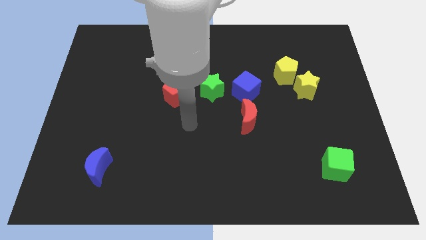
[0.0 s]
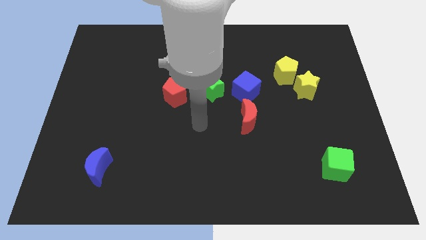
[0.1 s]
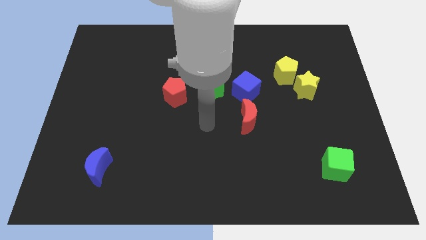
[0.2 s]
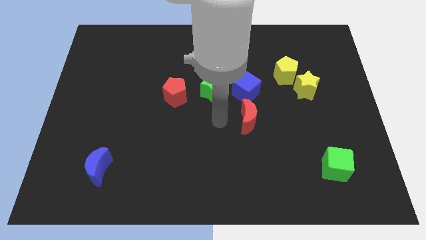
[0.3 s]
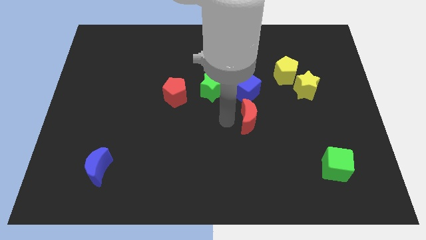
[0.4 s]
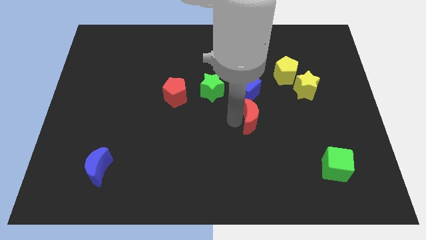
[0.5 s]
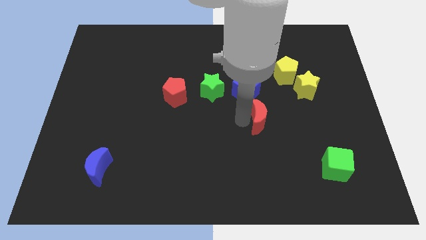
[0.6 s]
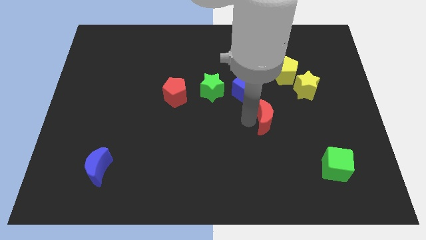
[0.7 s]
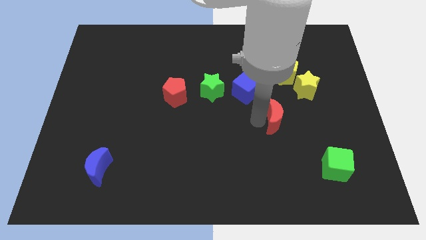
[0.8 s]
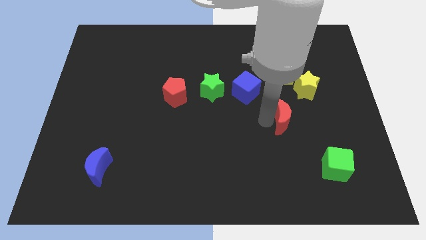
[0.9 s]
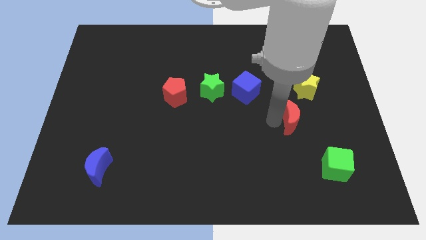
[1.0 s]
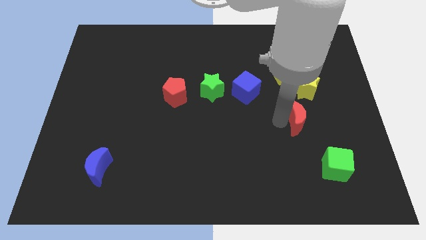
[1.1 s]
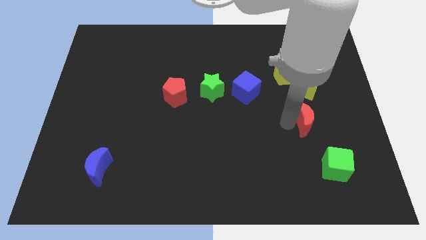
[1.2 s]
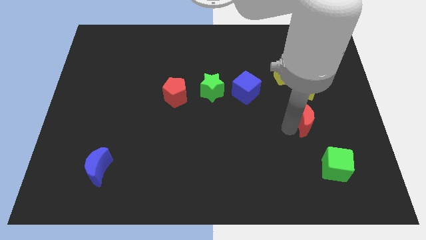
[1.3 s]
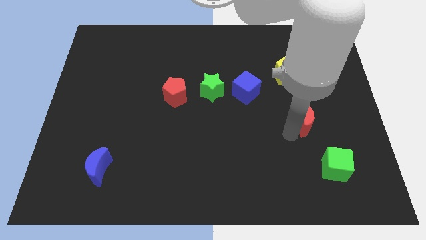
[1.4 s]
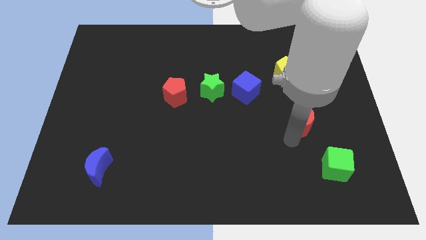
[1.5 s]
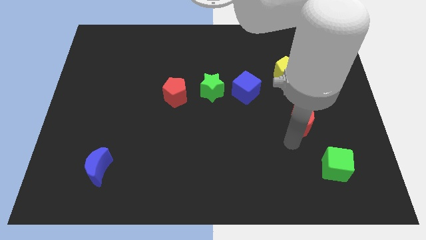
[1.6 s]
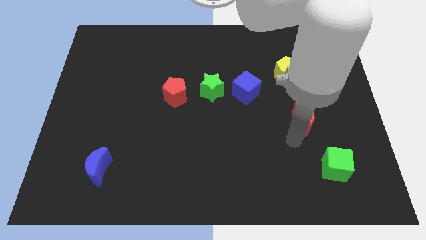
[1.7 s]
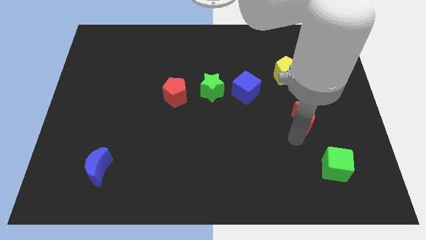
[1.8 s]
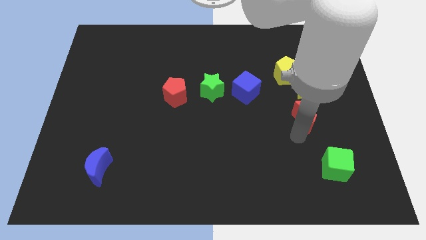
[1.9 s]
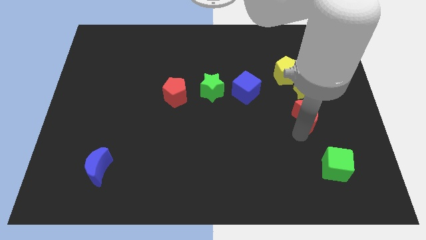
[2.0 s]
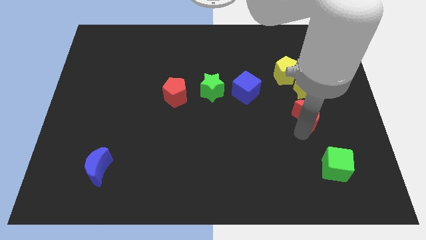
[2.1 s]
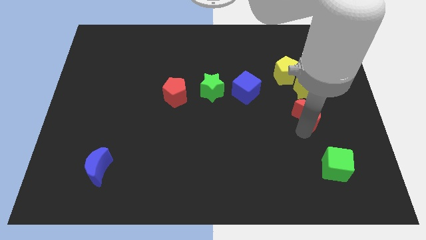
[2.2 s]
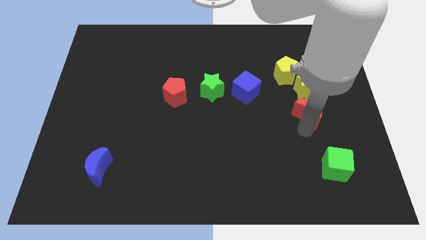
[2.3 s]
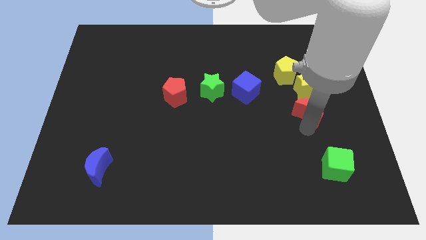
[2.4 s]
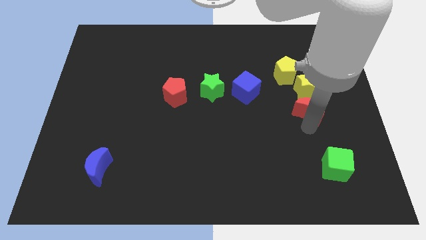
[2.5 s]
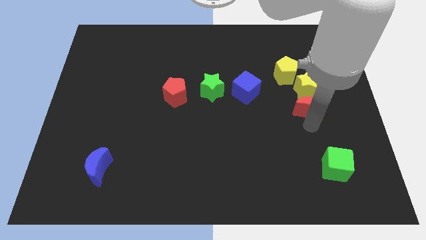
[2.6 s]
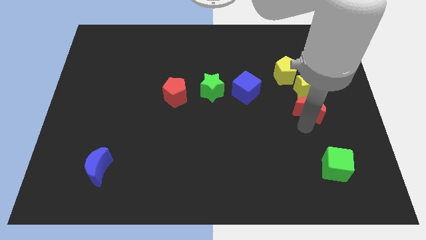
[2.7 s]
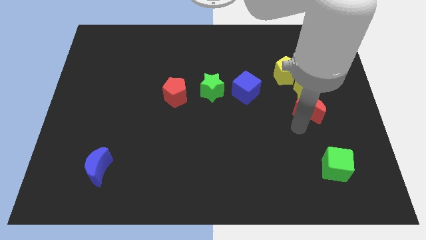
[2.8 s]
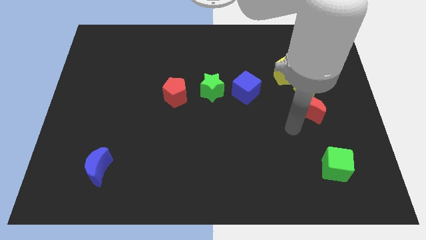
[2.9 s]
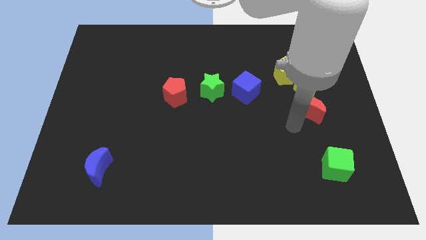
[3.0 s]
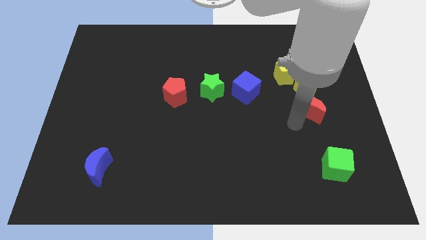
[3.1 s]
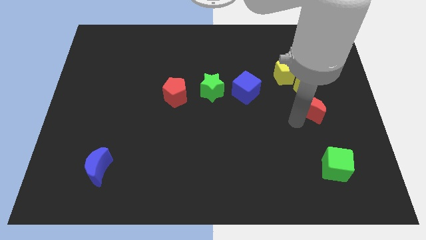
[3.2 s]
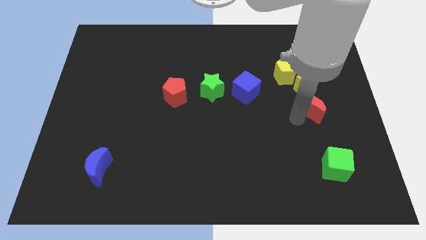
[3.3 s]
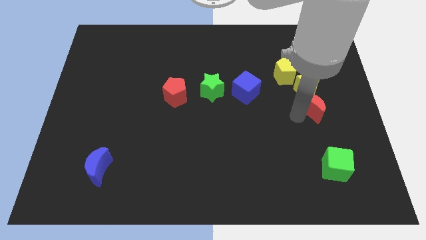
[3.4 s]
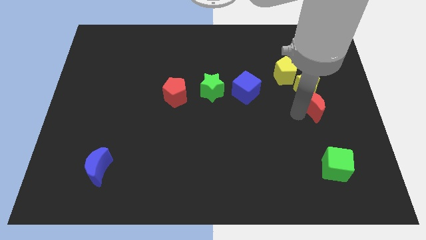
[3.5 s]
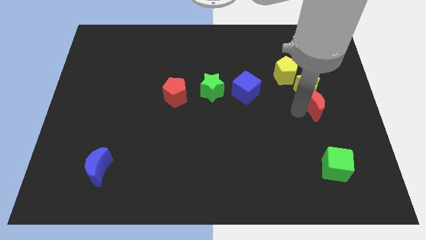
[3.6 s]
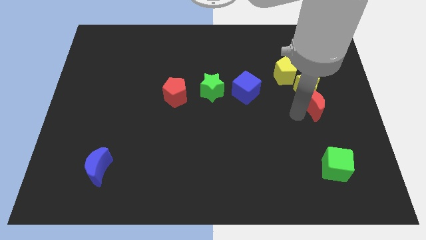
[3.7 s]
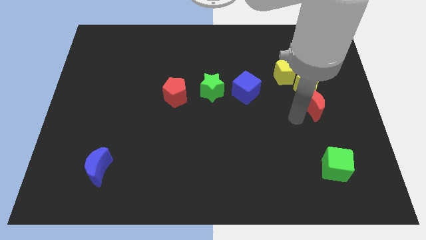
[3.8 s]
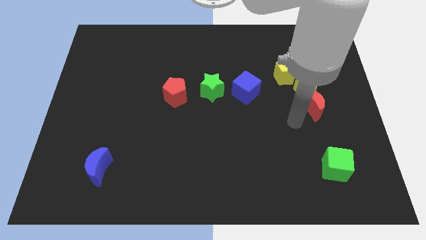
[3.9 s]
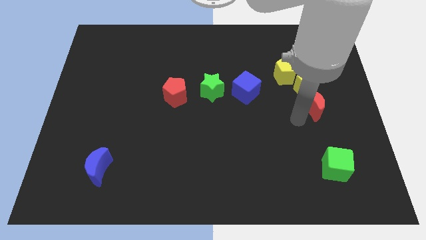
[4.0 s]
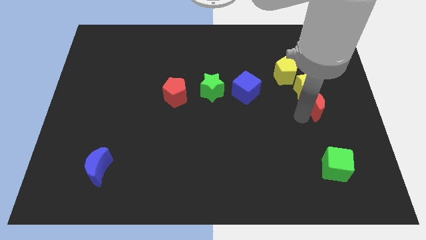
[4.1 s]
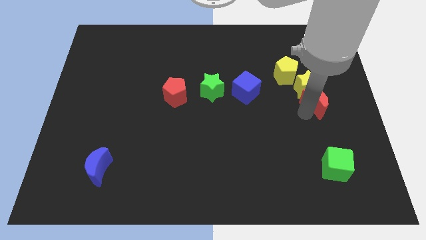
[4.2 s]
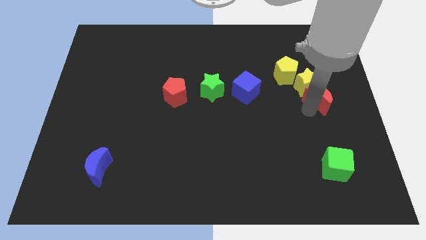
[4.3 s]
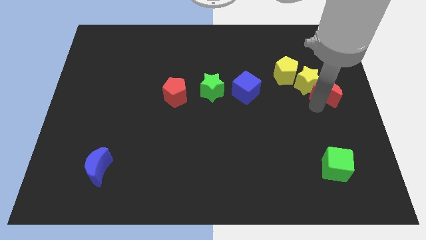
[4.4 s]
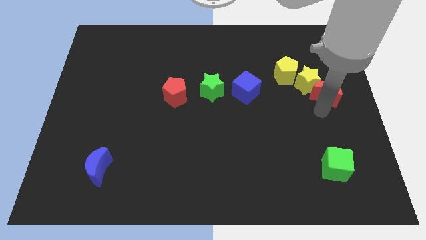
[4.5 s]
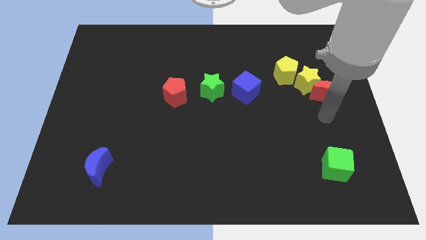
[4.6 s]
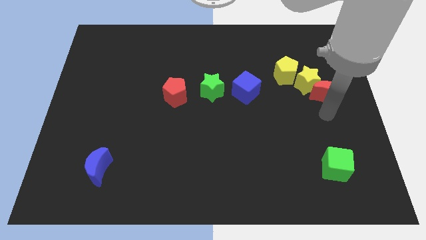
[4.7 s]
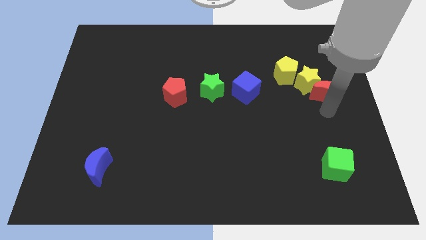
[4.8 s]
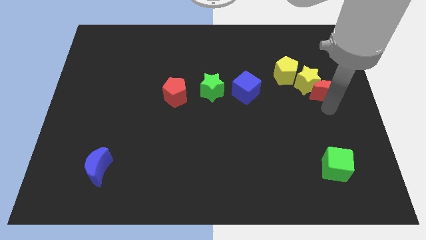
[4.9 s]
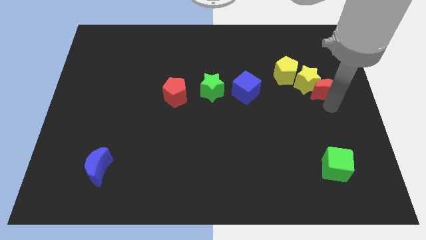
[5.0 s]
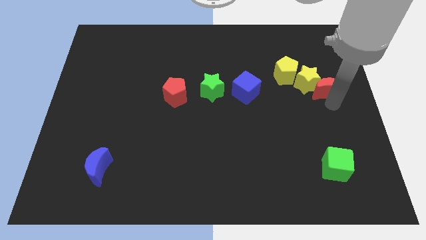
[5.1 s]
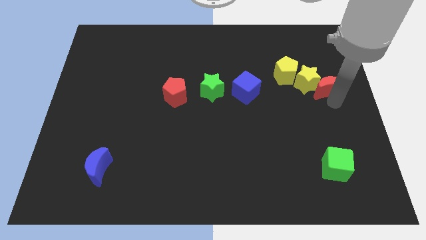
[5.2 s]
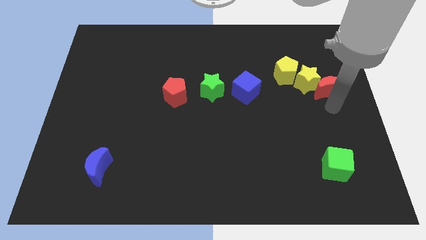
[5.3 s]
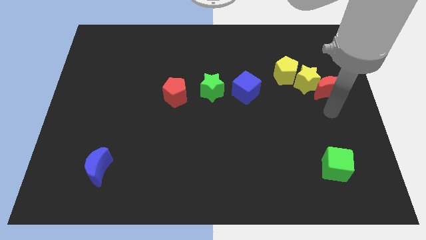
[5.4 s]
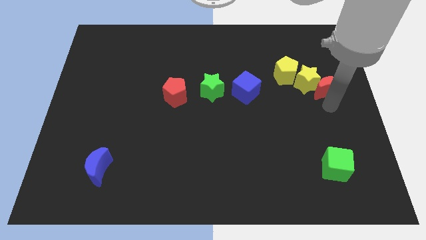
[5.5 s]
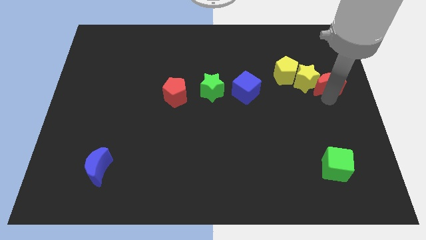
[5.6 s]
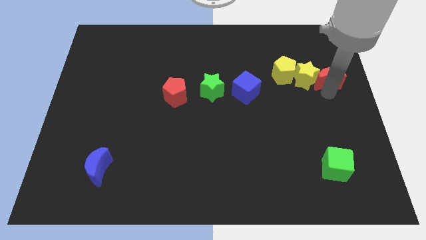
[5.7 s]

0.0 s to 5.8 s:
slide the red moon diagonally up and to the right of the yellow star

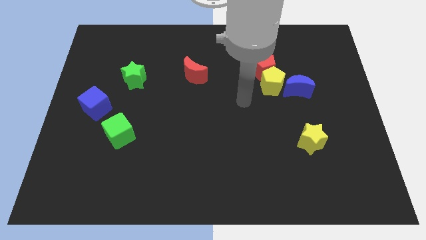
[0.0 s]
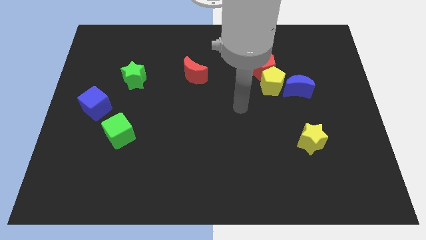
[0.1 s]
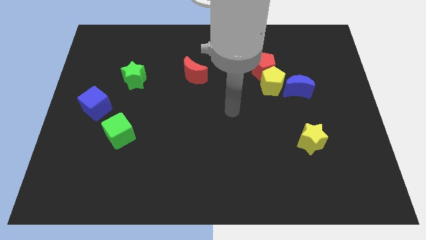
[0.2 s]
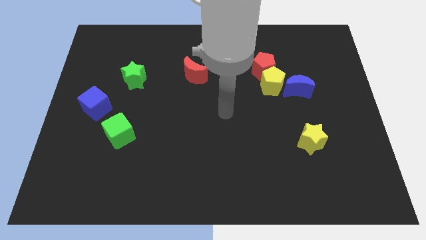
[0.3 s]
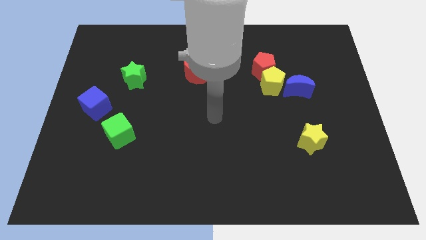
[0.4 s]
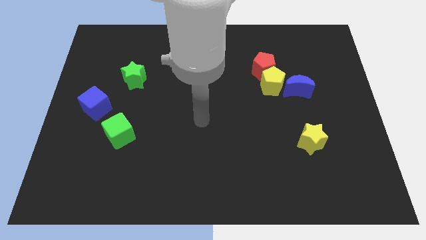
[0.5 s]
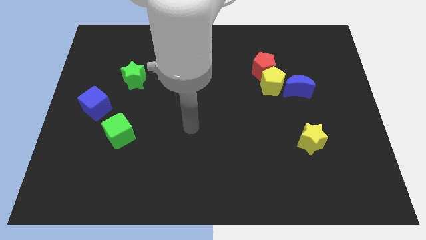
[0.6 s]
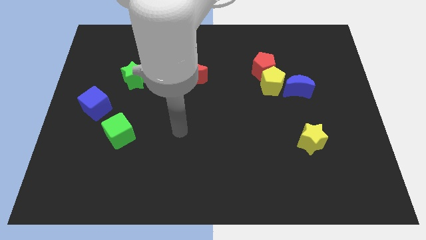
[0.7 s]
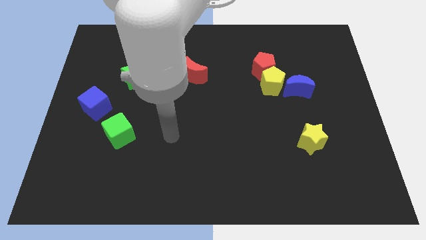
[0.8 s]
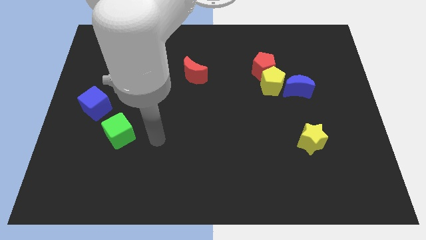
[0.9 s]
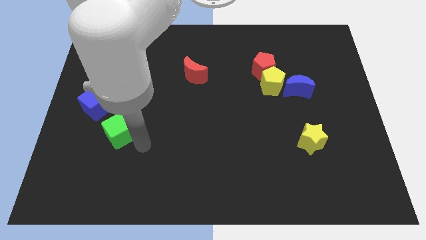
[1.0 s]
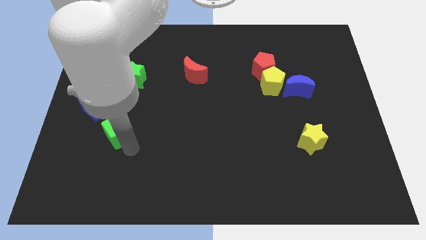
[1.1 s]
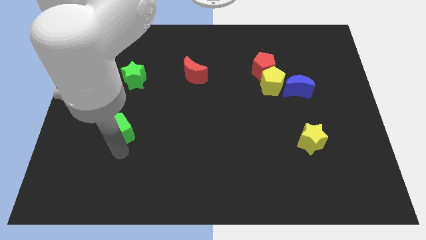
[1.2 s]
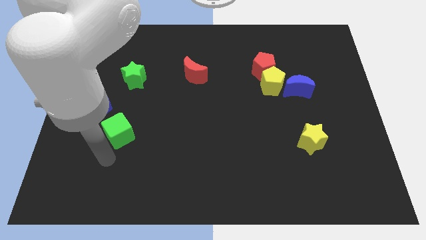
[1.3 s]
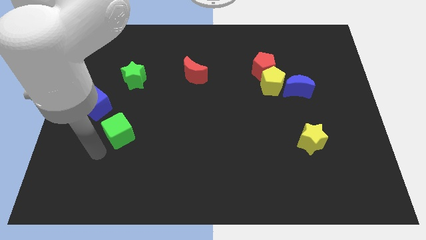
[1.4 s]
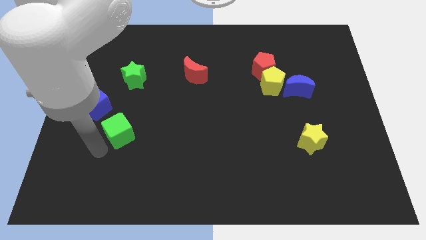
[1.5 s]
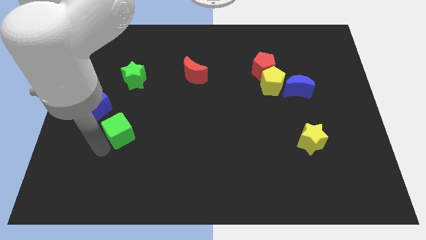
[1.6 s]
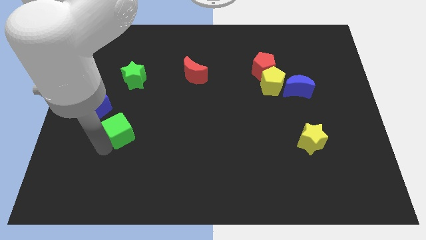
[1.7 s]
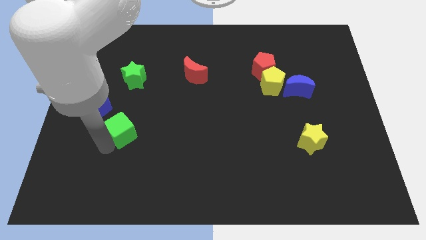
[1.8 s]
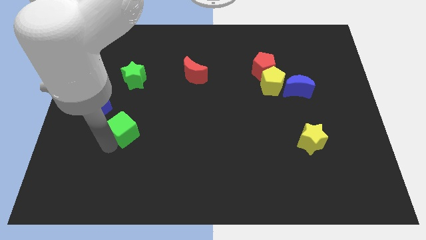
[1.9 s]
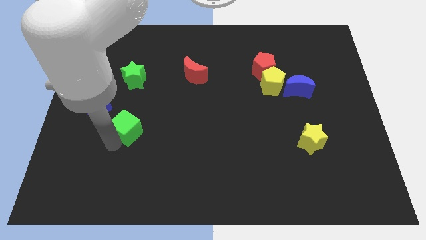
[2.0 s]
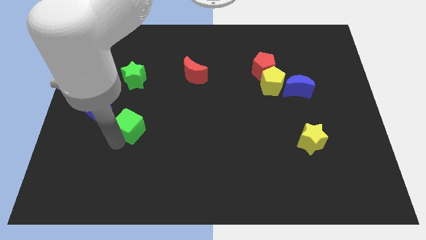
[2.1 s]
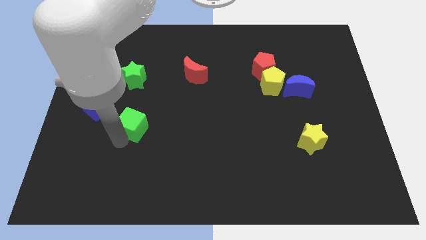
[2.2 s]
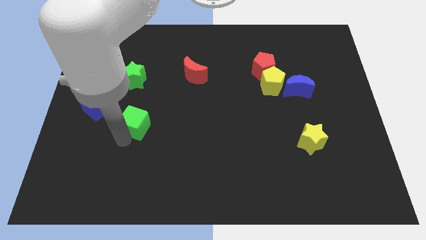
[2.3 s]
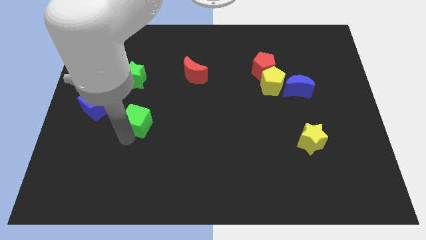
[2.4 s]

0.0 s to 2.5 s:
slide the green cube to the right side of the blue cube
